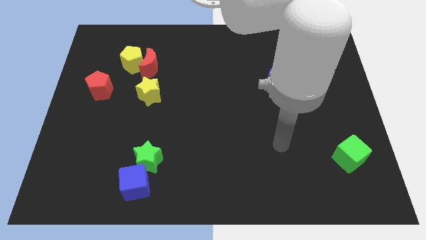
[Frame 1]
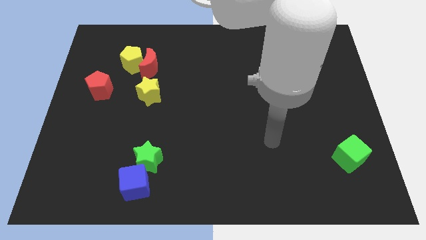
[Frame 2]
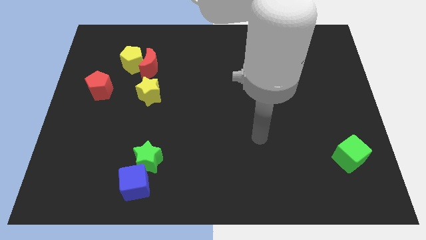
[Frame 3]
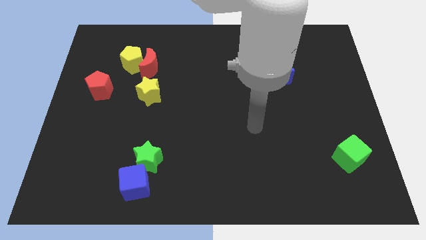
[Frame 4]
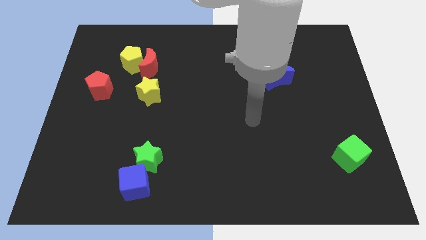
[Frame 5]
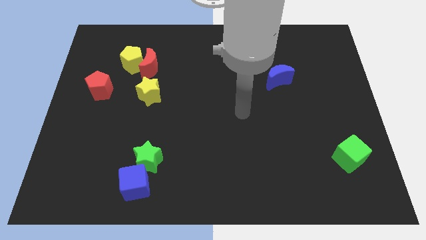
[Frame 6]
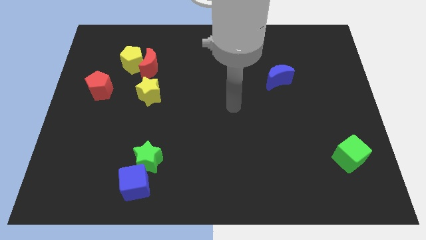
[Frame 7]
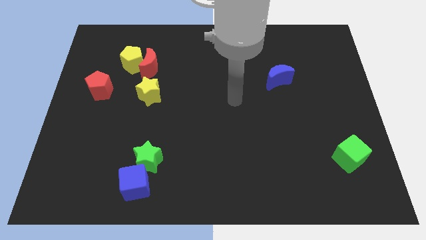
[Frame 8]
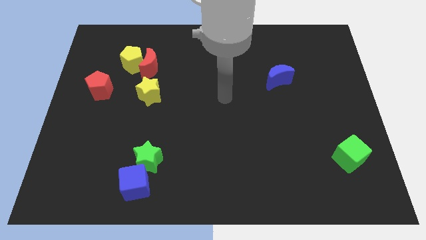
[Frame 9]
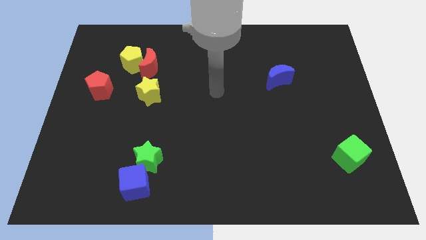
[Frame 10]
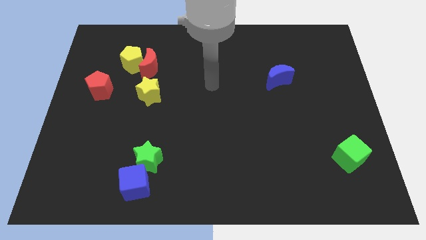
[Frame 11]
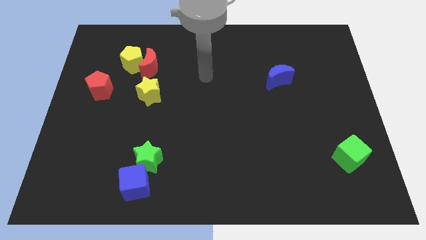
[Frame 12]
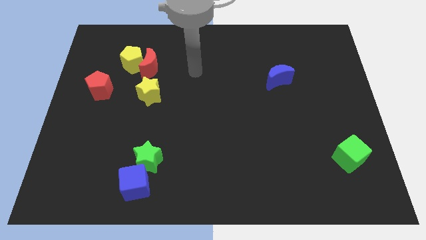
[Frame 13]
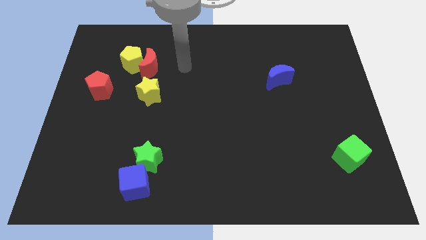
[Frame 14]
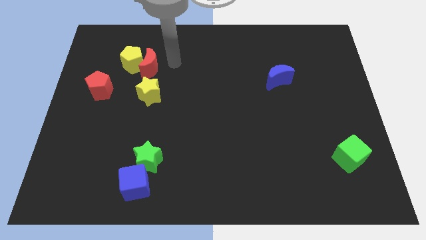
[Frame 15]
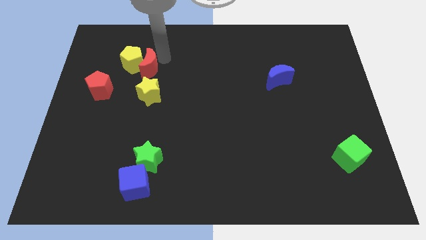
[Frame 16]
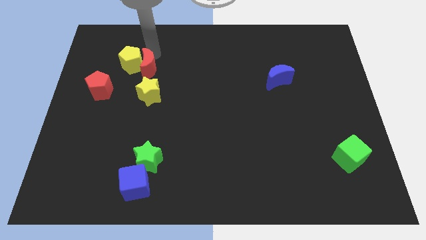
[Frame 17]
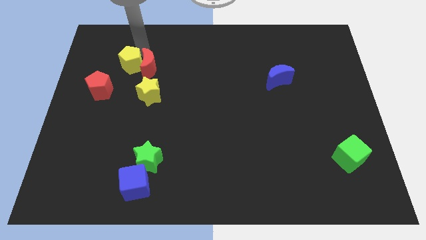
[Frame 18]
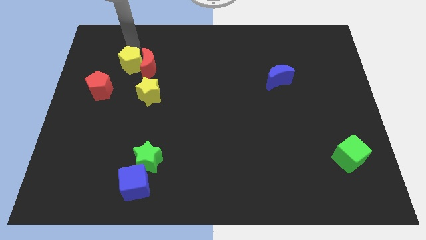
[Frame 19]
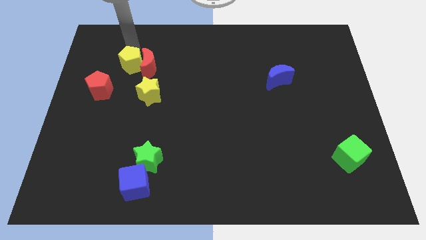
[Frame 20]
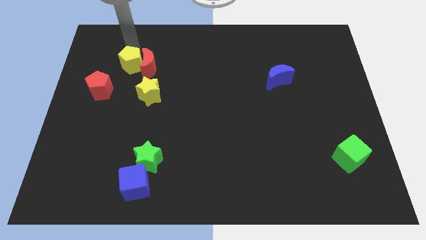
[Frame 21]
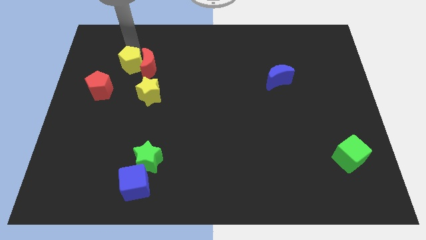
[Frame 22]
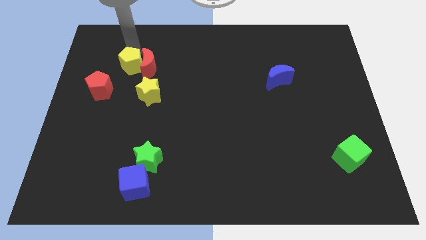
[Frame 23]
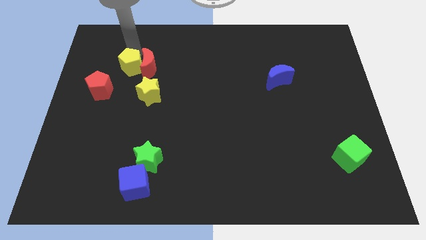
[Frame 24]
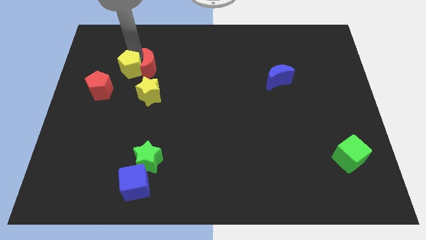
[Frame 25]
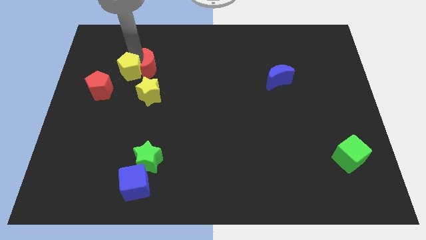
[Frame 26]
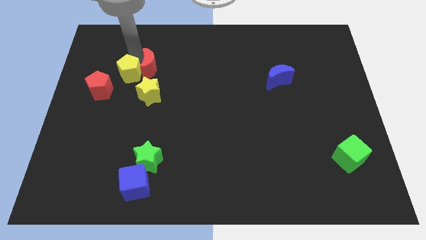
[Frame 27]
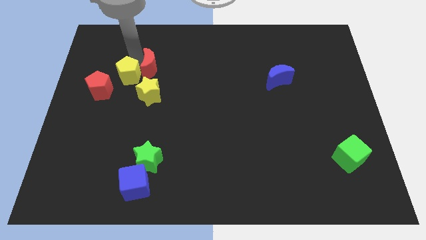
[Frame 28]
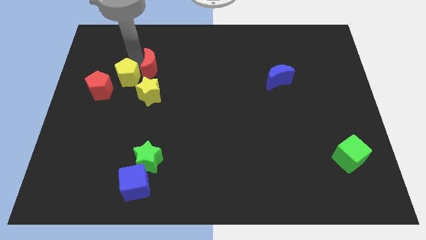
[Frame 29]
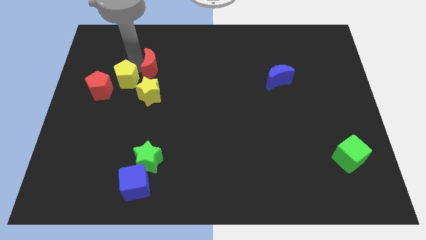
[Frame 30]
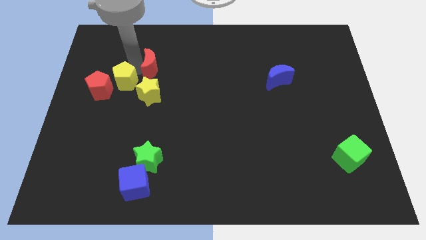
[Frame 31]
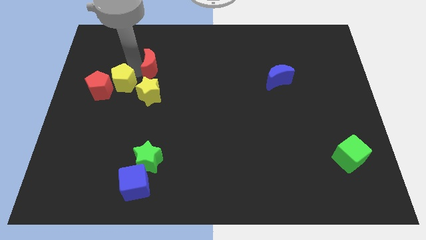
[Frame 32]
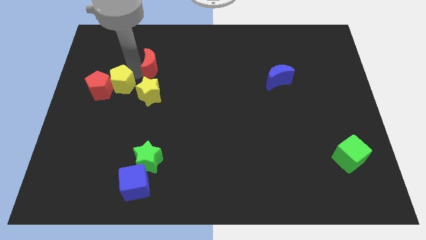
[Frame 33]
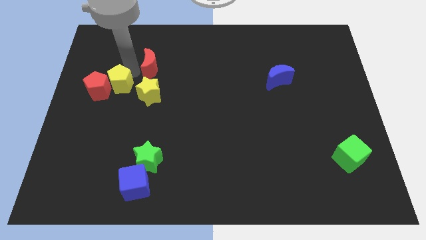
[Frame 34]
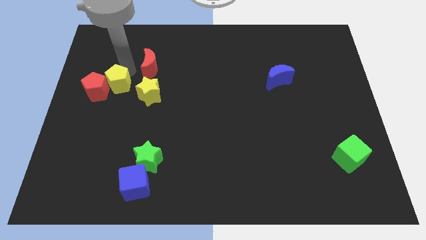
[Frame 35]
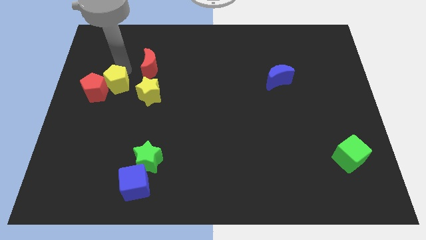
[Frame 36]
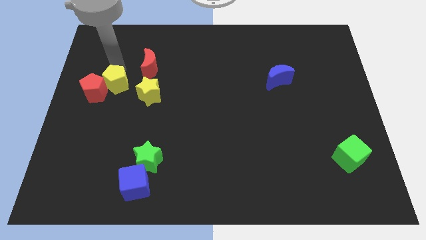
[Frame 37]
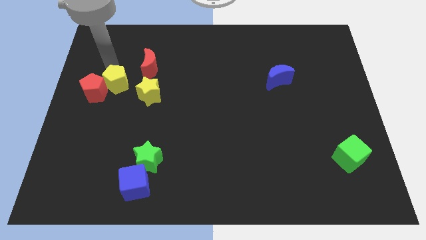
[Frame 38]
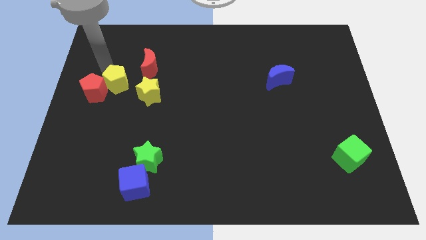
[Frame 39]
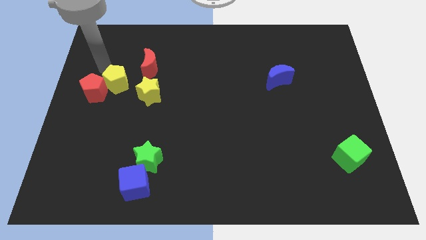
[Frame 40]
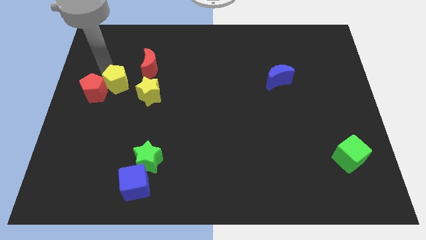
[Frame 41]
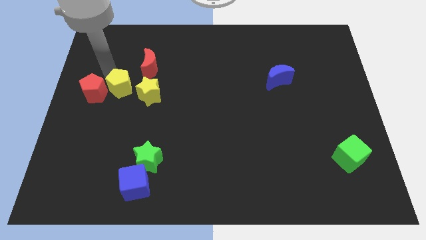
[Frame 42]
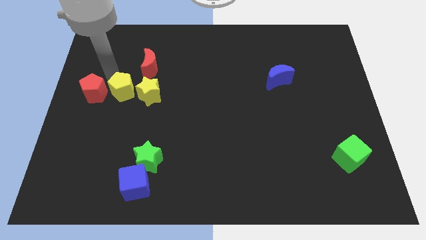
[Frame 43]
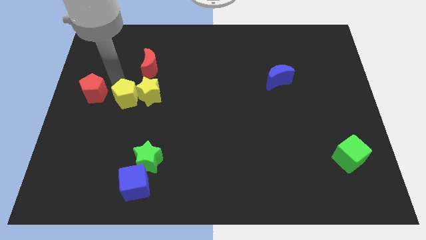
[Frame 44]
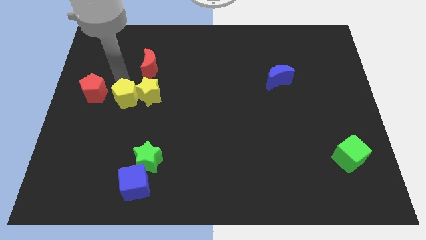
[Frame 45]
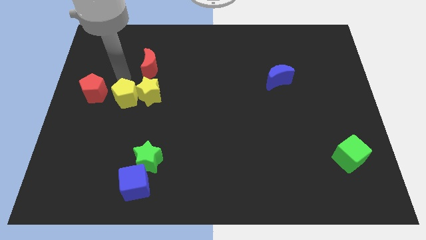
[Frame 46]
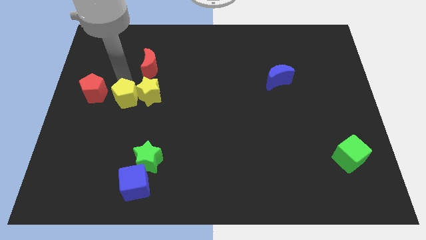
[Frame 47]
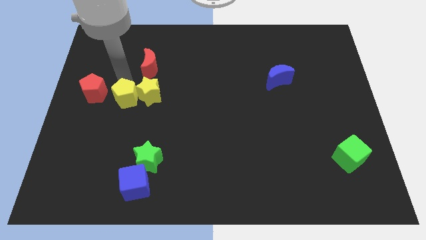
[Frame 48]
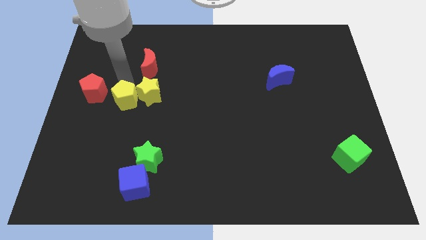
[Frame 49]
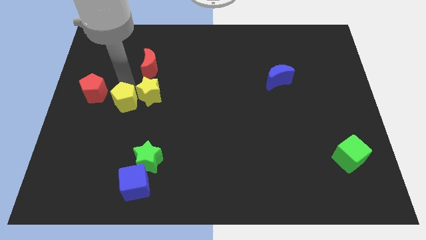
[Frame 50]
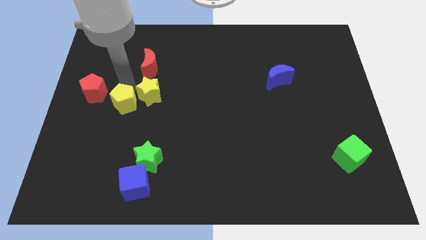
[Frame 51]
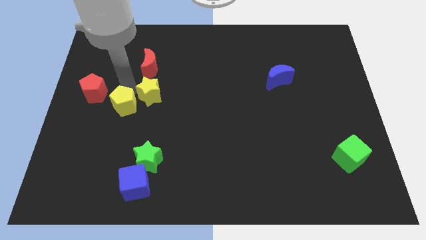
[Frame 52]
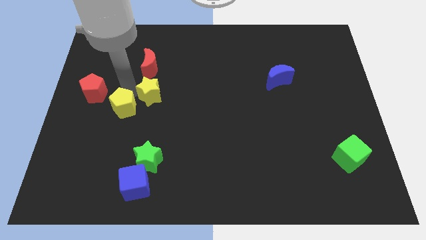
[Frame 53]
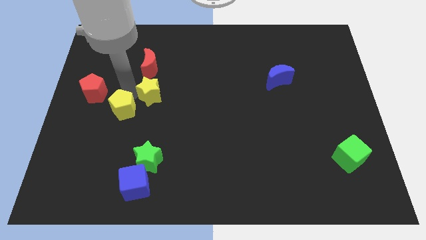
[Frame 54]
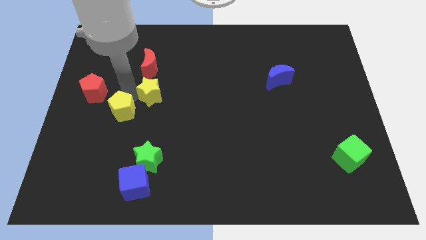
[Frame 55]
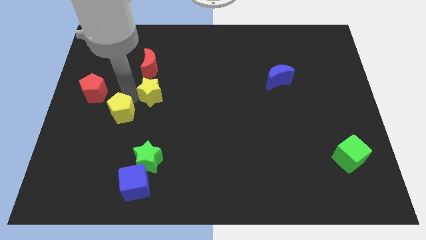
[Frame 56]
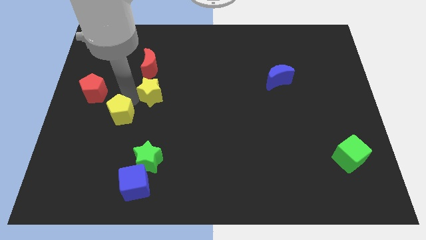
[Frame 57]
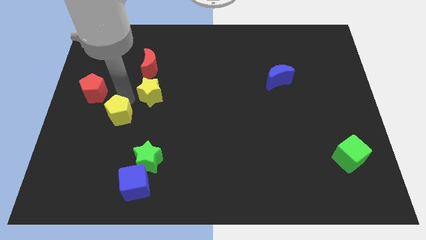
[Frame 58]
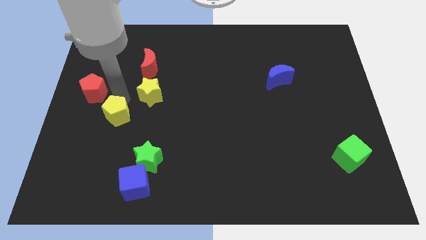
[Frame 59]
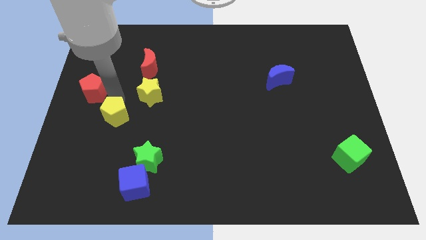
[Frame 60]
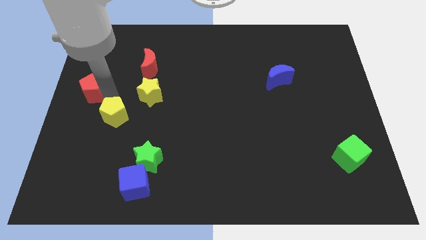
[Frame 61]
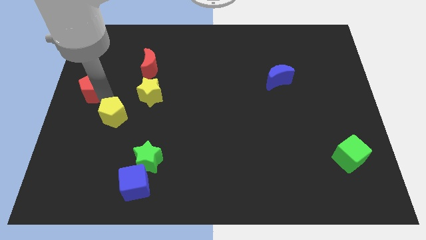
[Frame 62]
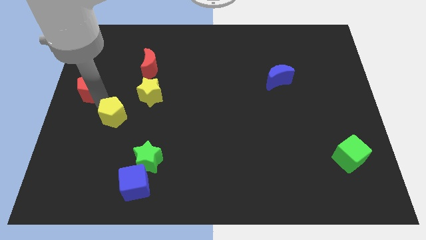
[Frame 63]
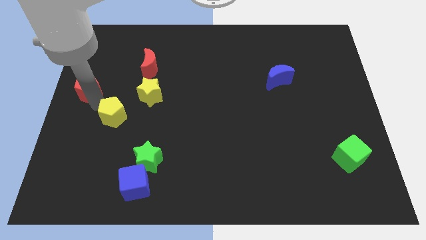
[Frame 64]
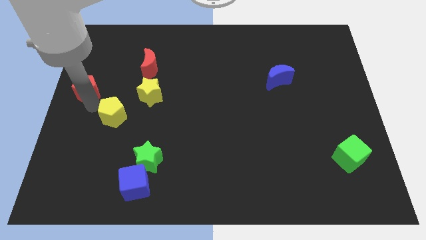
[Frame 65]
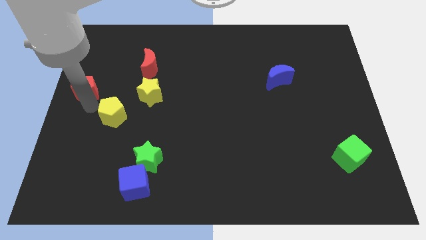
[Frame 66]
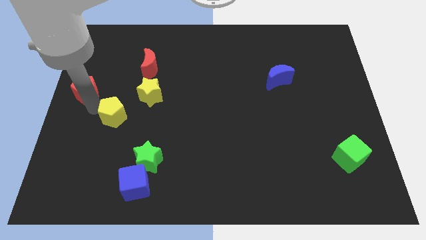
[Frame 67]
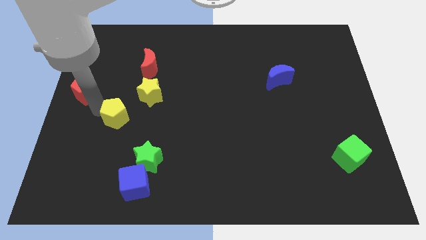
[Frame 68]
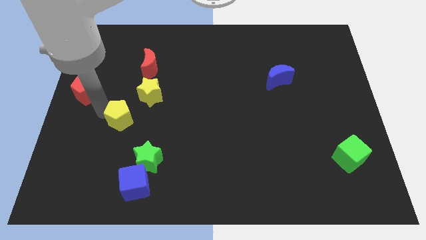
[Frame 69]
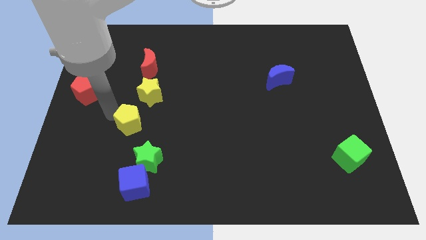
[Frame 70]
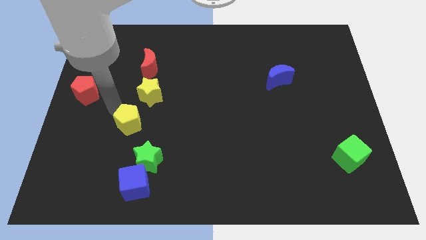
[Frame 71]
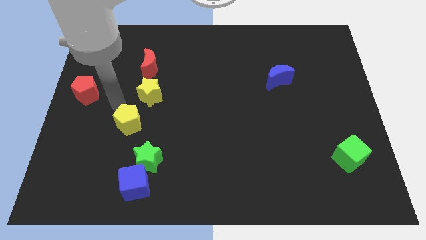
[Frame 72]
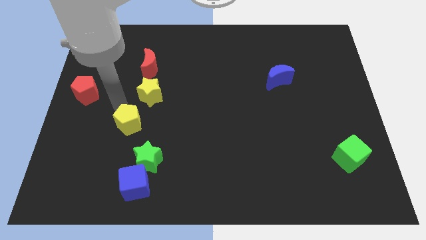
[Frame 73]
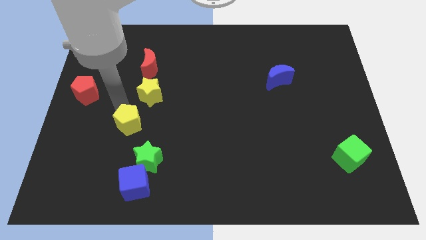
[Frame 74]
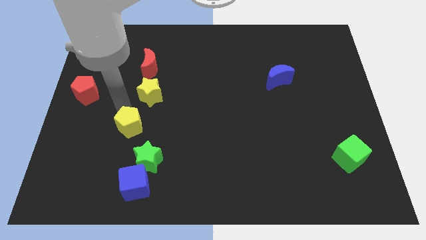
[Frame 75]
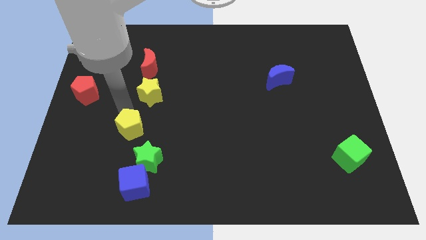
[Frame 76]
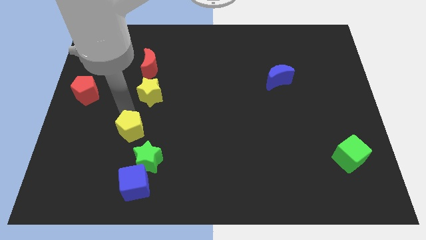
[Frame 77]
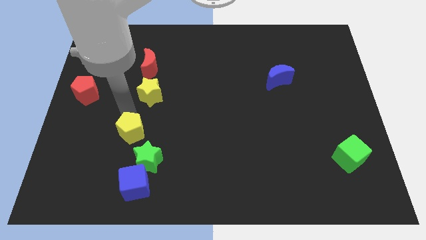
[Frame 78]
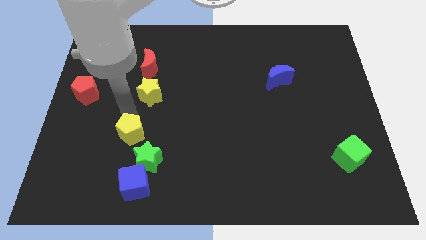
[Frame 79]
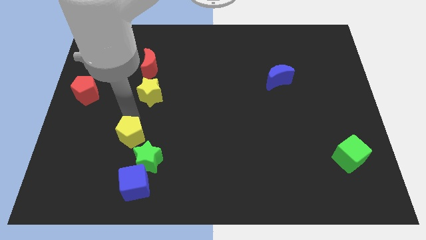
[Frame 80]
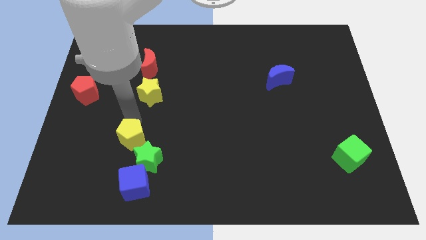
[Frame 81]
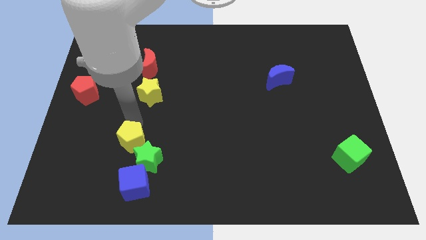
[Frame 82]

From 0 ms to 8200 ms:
push the yellow pentagon to the green star
